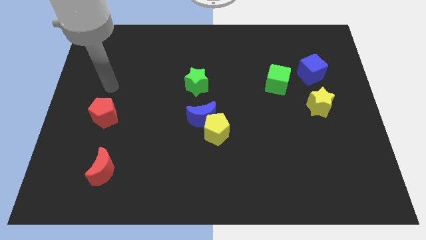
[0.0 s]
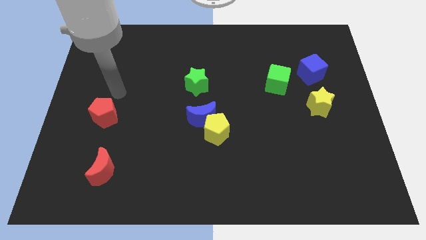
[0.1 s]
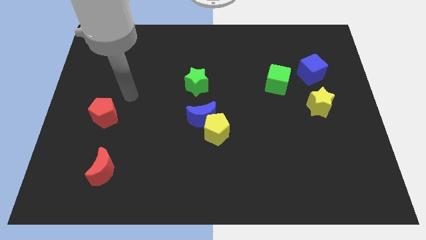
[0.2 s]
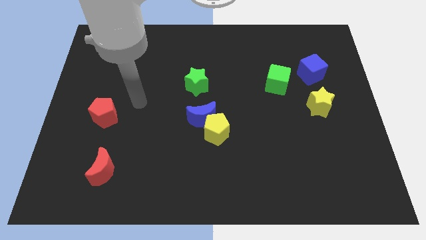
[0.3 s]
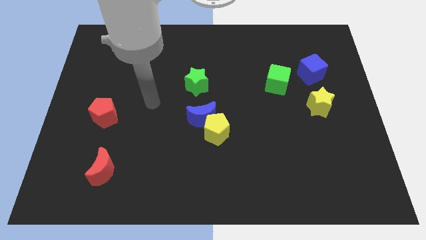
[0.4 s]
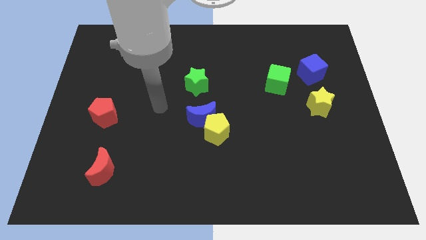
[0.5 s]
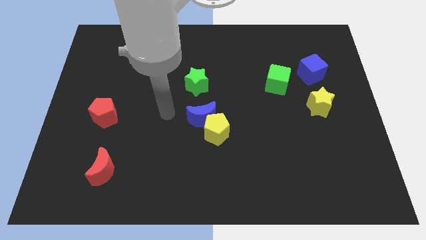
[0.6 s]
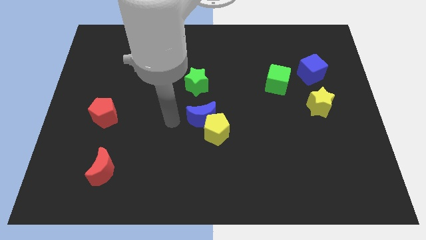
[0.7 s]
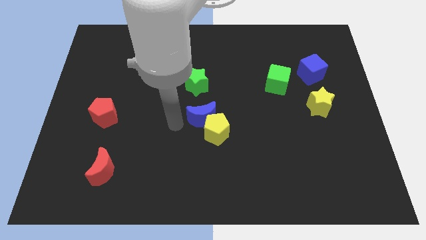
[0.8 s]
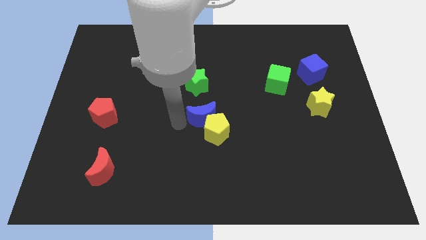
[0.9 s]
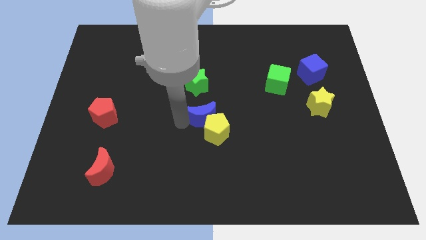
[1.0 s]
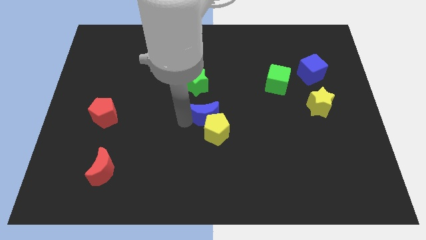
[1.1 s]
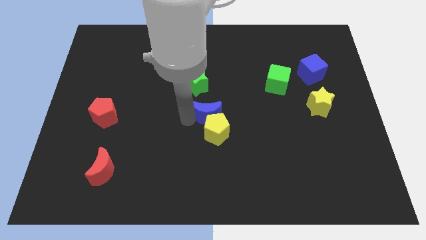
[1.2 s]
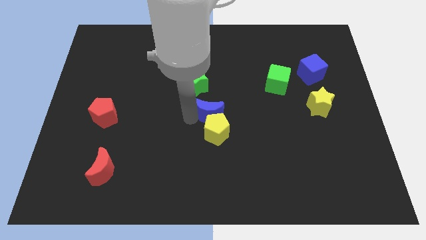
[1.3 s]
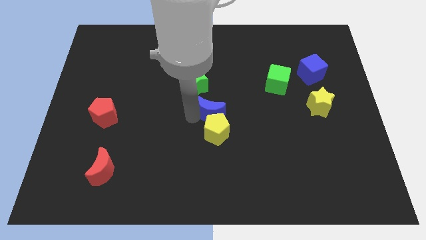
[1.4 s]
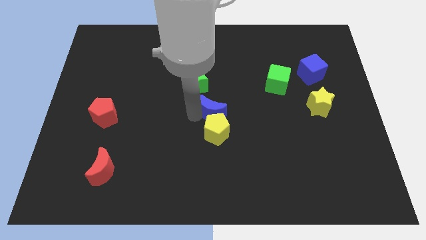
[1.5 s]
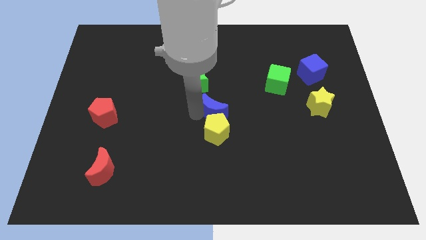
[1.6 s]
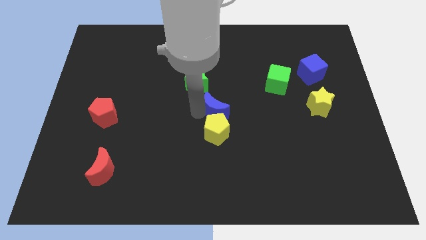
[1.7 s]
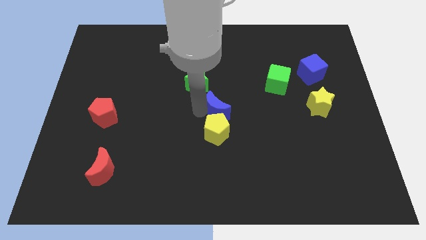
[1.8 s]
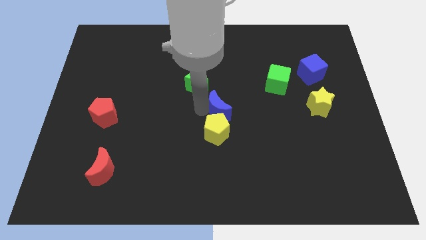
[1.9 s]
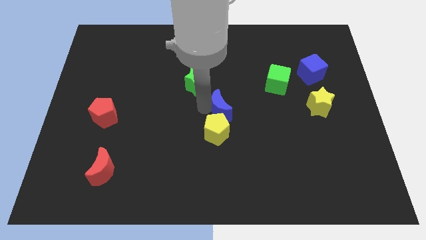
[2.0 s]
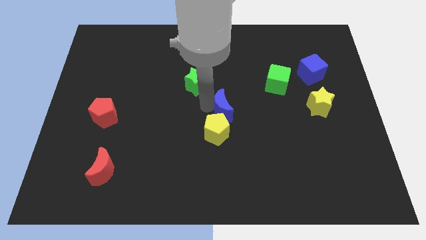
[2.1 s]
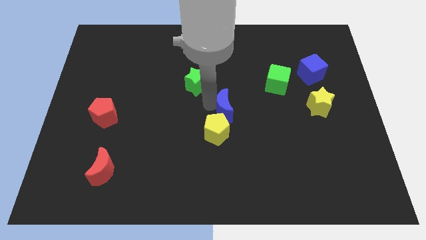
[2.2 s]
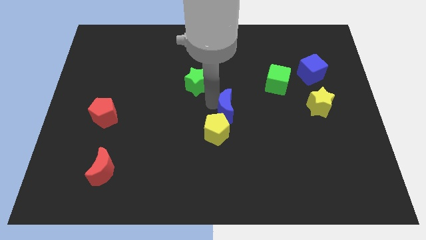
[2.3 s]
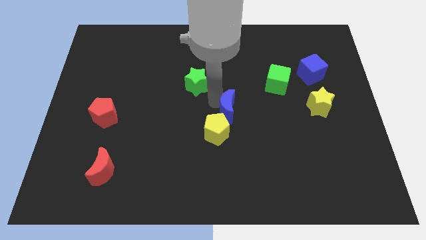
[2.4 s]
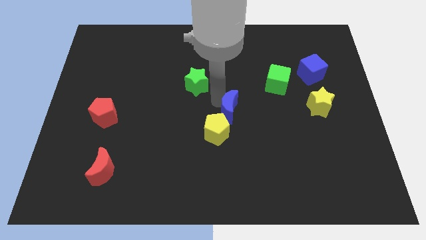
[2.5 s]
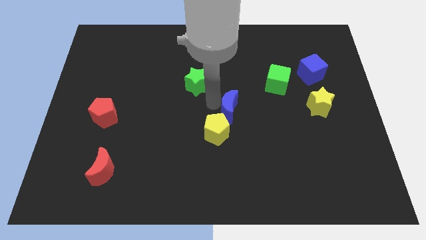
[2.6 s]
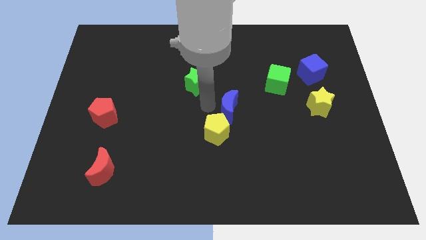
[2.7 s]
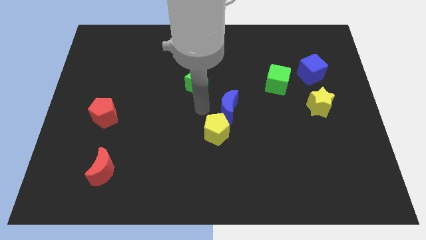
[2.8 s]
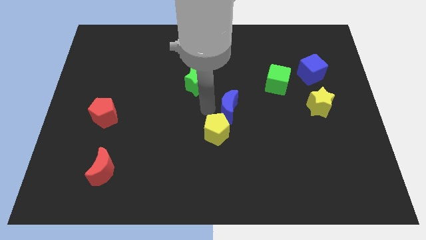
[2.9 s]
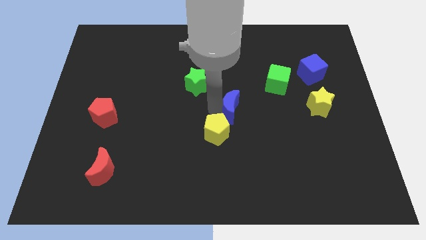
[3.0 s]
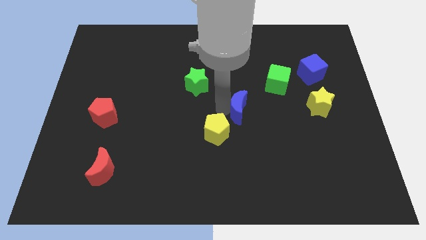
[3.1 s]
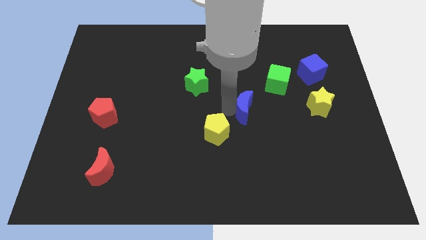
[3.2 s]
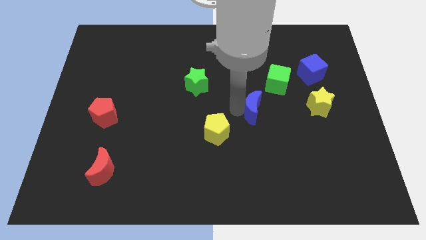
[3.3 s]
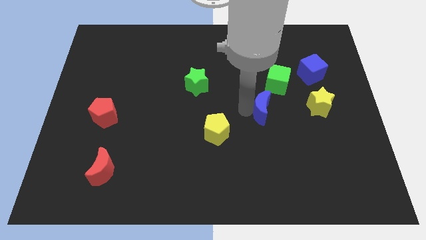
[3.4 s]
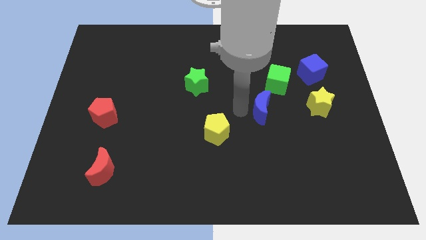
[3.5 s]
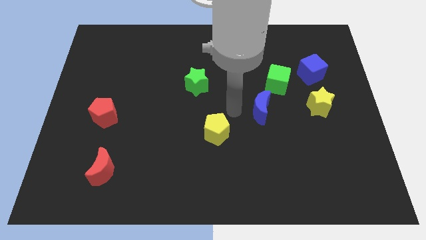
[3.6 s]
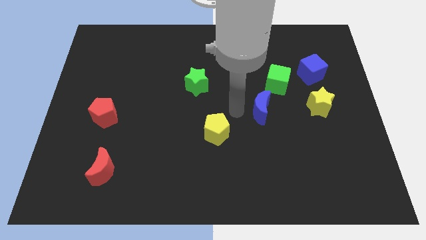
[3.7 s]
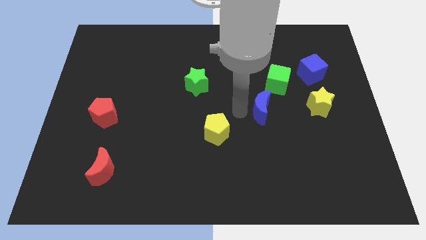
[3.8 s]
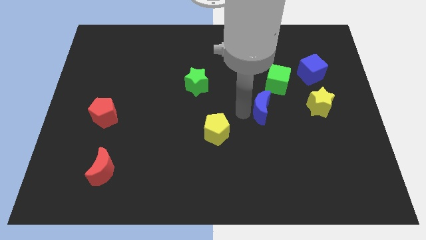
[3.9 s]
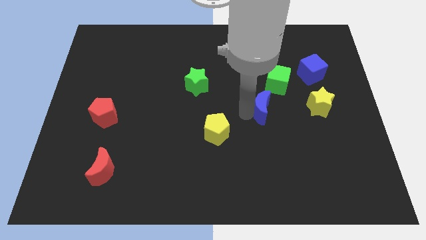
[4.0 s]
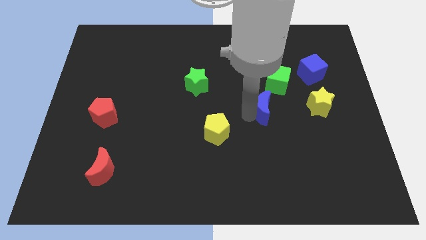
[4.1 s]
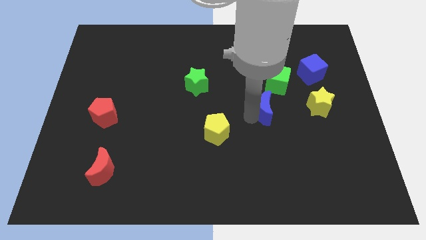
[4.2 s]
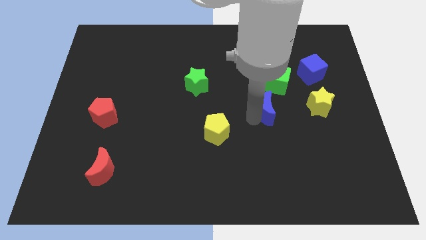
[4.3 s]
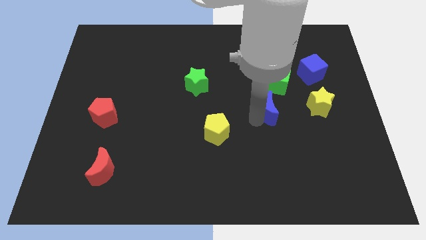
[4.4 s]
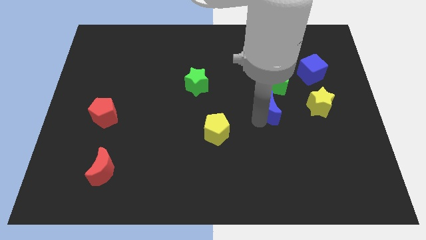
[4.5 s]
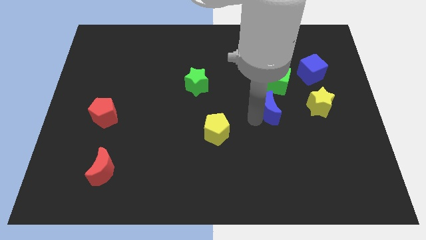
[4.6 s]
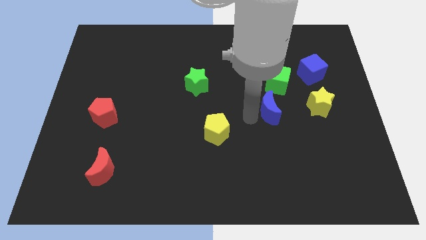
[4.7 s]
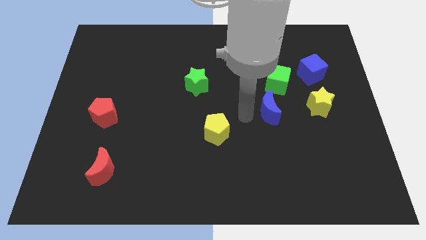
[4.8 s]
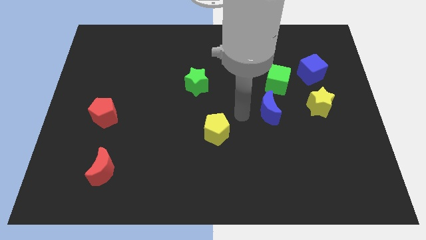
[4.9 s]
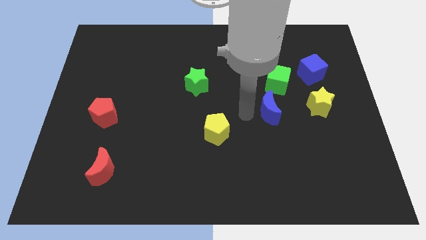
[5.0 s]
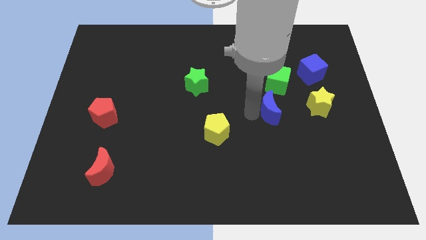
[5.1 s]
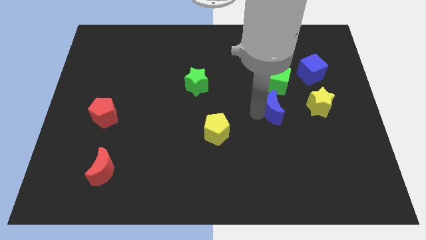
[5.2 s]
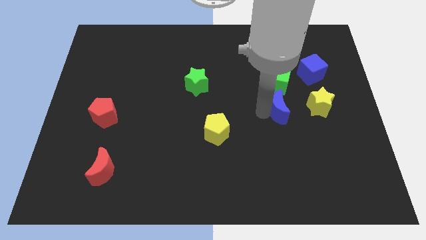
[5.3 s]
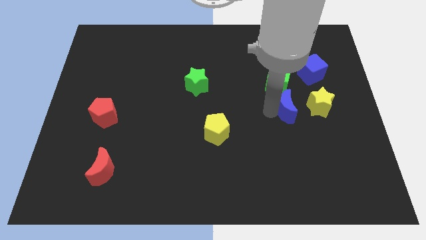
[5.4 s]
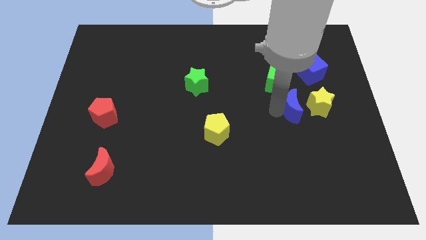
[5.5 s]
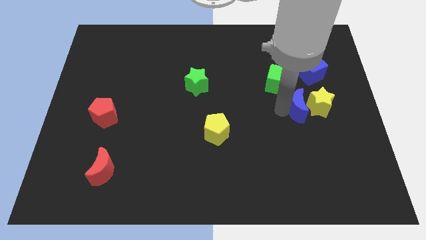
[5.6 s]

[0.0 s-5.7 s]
push the blue moon close to the yellow star

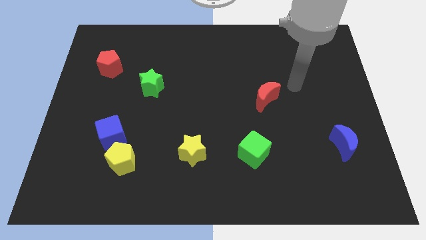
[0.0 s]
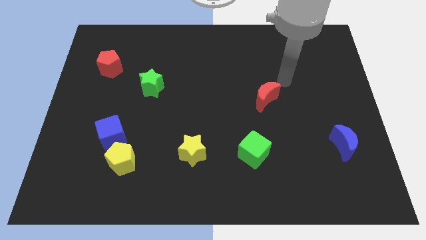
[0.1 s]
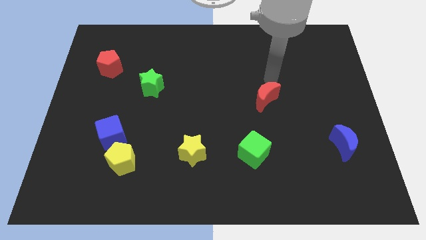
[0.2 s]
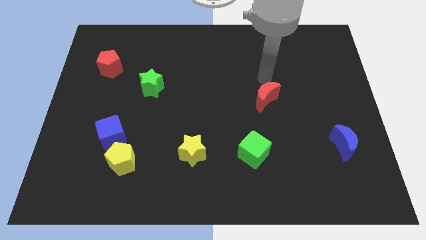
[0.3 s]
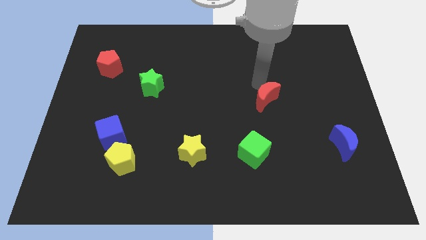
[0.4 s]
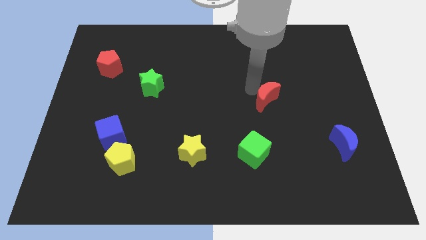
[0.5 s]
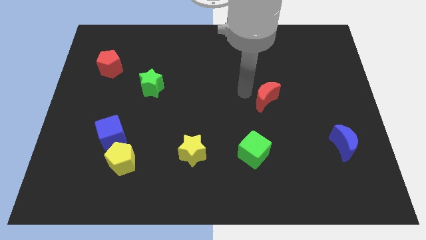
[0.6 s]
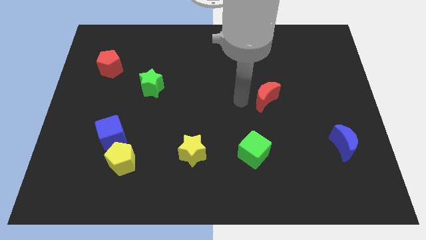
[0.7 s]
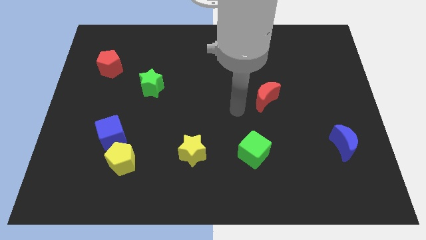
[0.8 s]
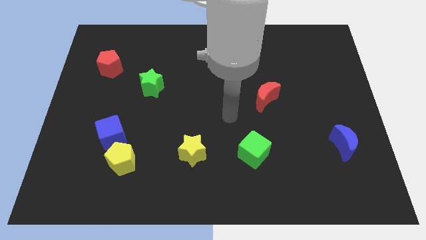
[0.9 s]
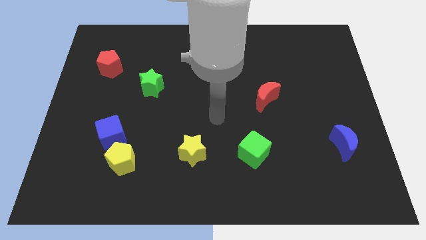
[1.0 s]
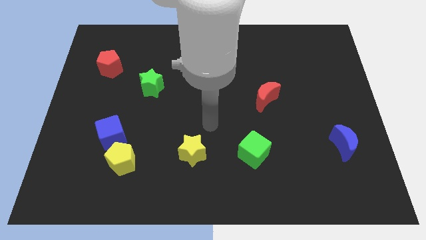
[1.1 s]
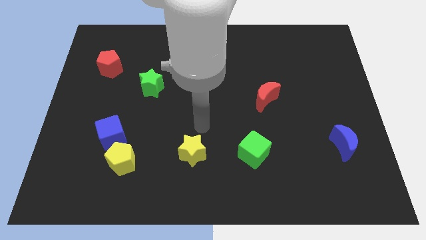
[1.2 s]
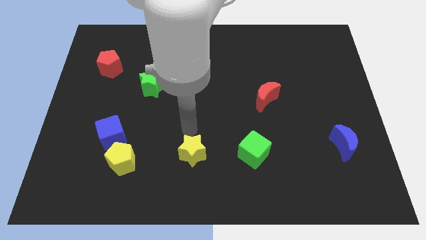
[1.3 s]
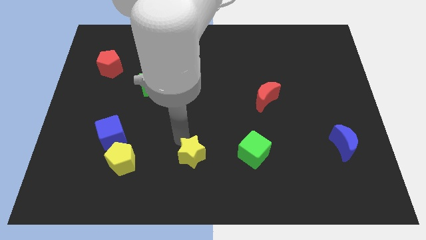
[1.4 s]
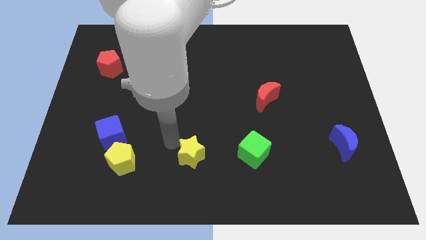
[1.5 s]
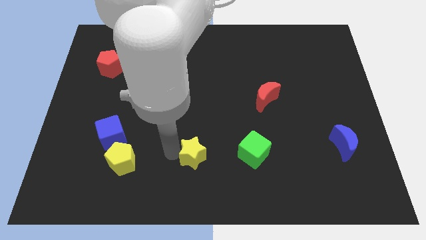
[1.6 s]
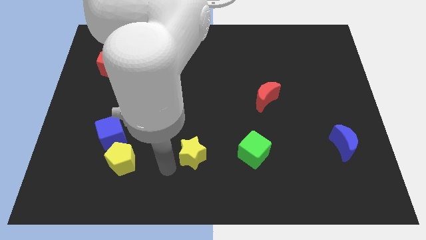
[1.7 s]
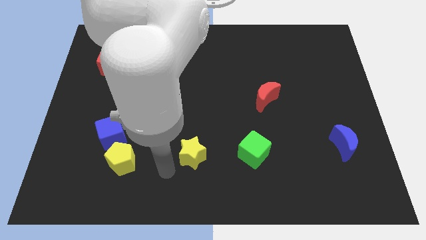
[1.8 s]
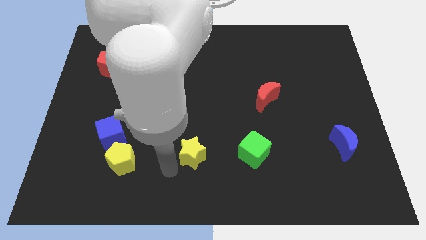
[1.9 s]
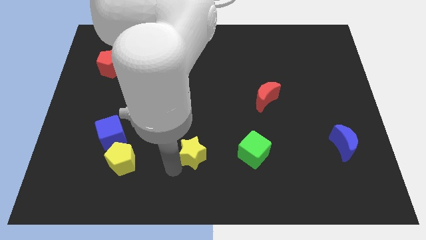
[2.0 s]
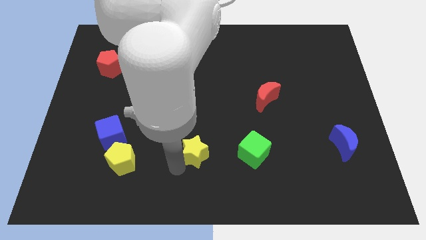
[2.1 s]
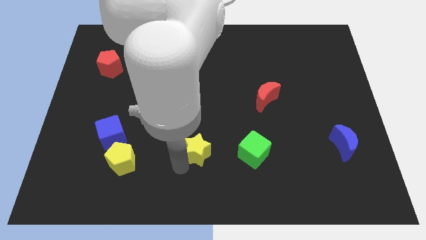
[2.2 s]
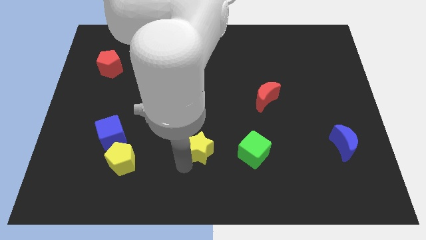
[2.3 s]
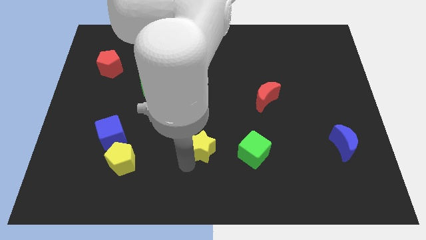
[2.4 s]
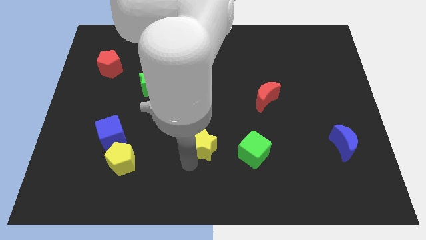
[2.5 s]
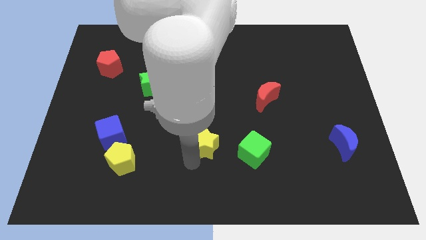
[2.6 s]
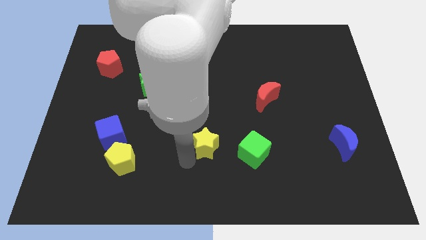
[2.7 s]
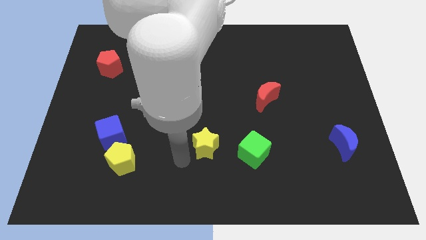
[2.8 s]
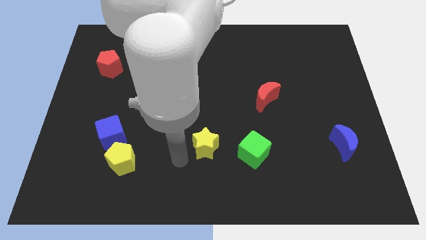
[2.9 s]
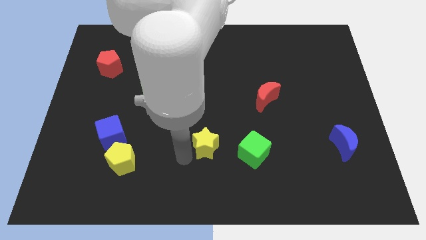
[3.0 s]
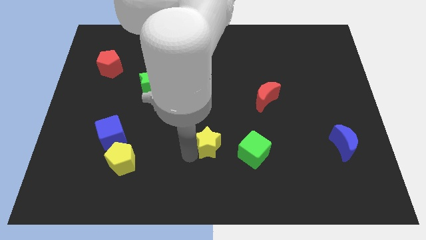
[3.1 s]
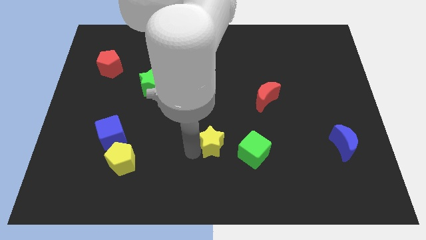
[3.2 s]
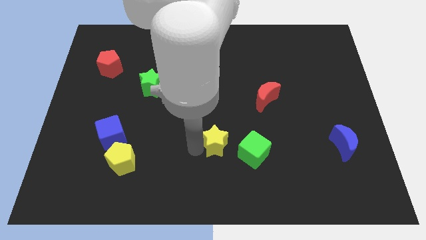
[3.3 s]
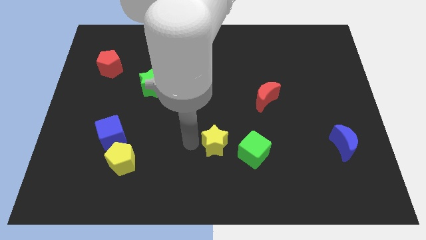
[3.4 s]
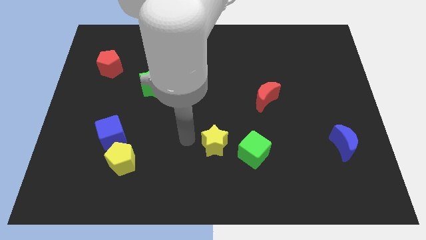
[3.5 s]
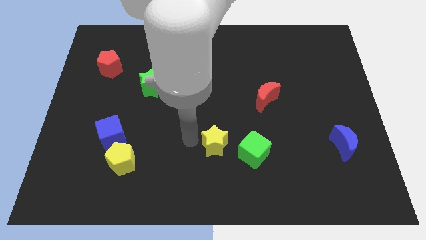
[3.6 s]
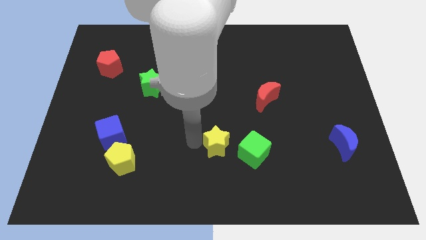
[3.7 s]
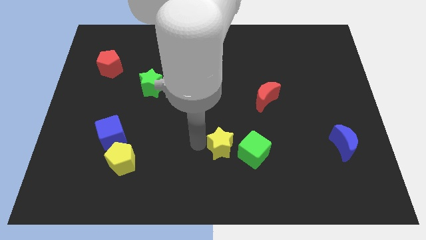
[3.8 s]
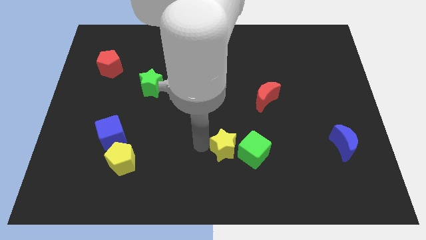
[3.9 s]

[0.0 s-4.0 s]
move the yellow star to the green cube
